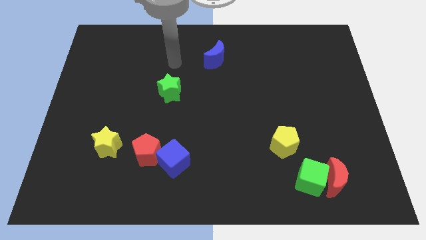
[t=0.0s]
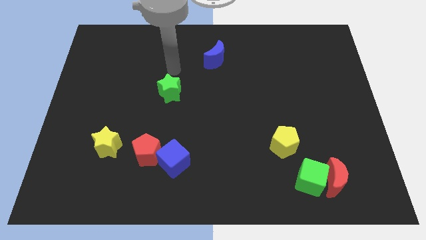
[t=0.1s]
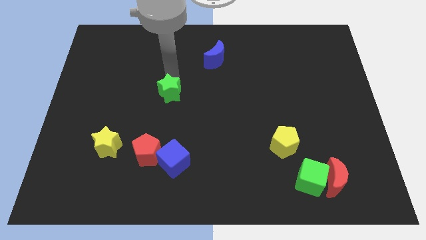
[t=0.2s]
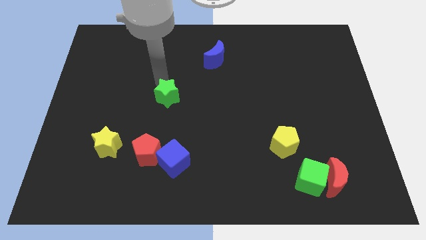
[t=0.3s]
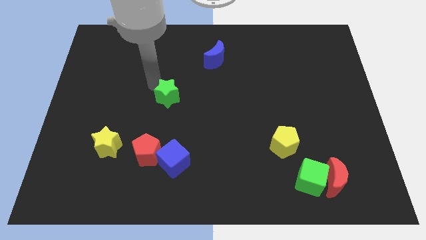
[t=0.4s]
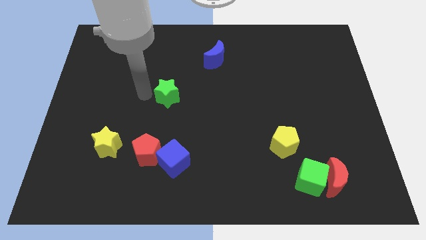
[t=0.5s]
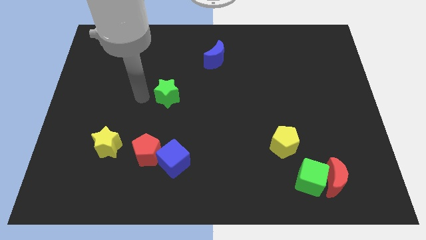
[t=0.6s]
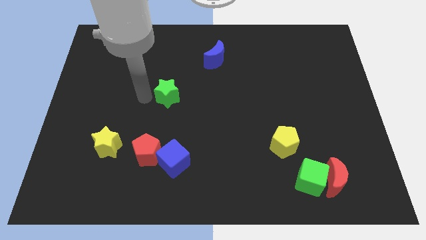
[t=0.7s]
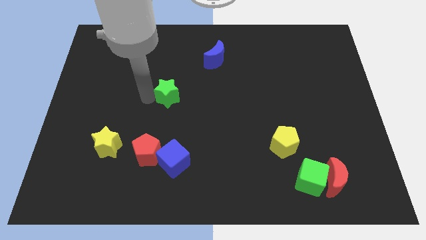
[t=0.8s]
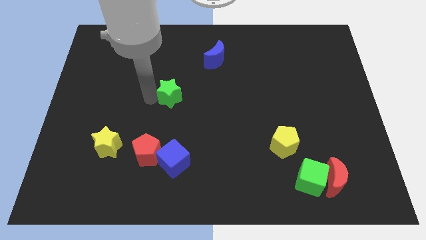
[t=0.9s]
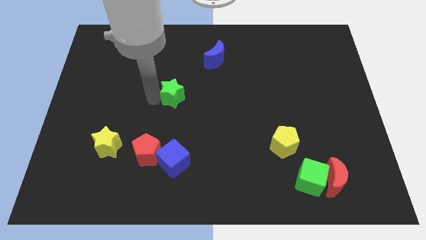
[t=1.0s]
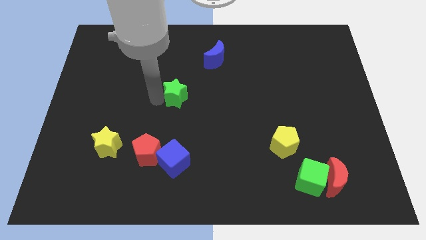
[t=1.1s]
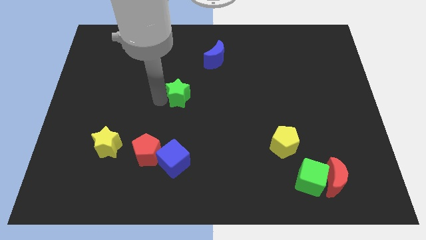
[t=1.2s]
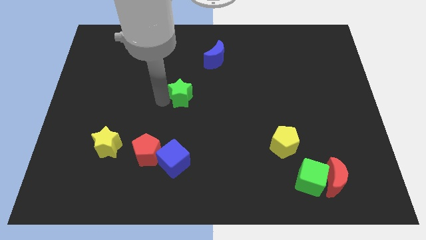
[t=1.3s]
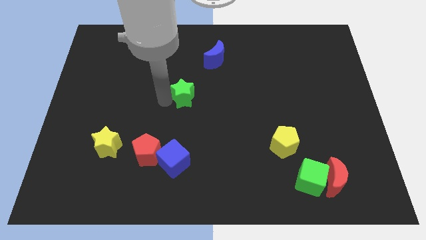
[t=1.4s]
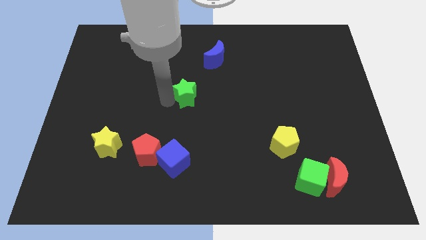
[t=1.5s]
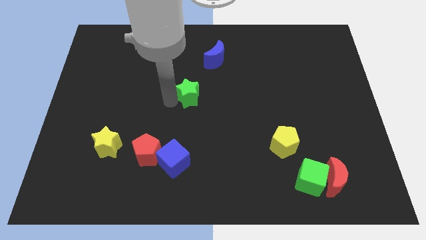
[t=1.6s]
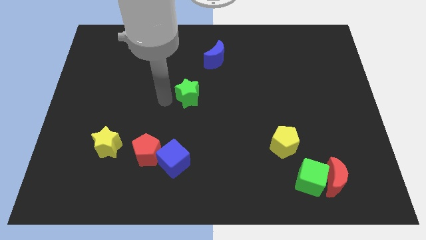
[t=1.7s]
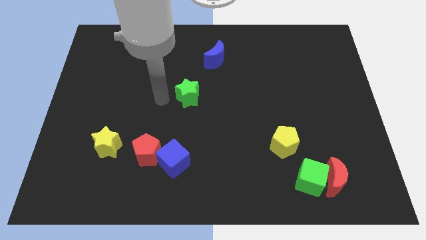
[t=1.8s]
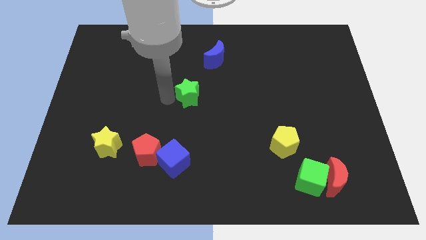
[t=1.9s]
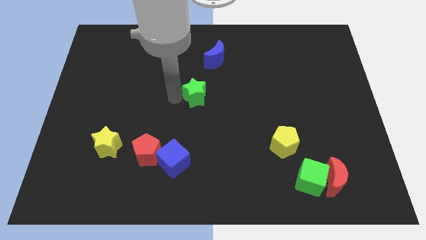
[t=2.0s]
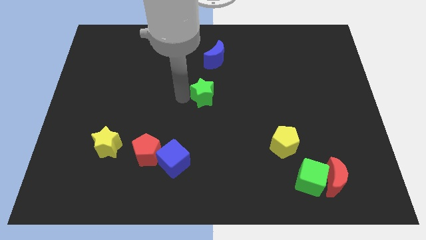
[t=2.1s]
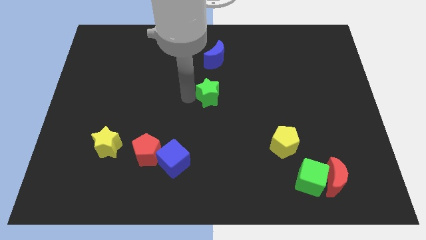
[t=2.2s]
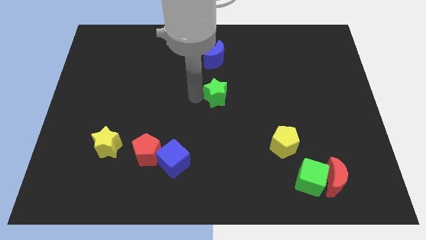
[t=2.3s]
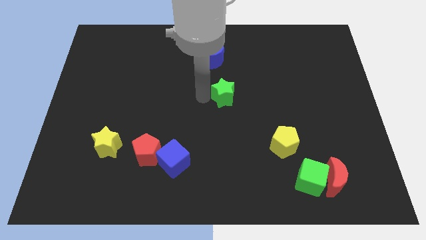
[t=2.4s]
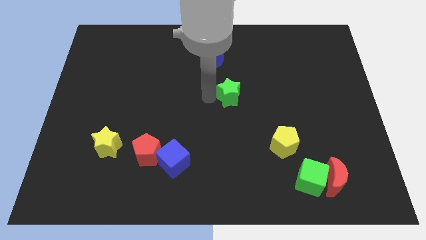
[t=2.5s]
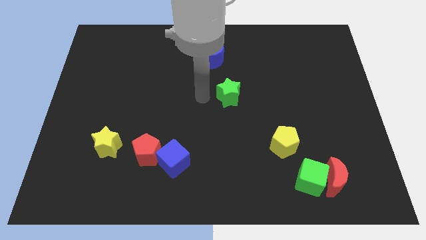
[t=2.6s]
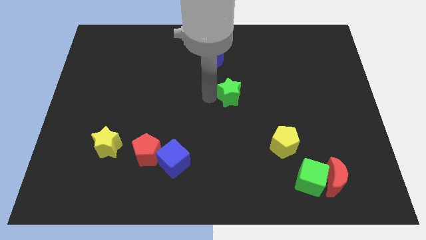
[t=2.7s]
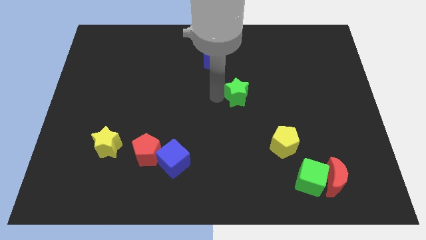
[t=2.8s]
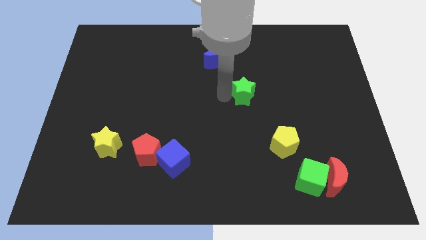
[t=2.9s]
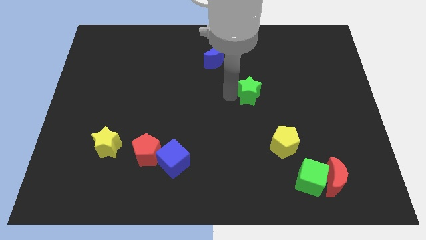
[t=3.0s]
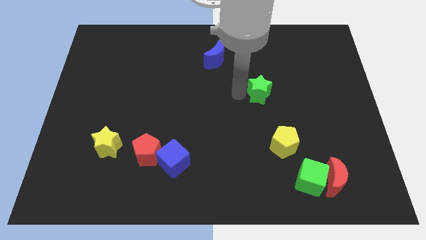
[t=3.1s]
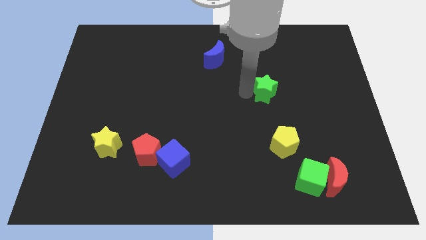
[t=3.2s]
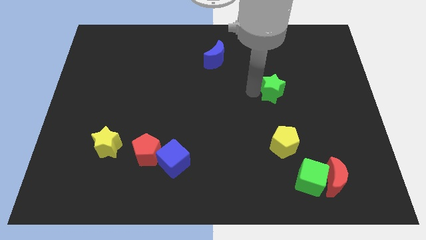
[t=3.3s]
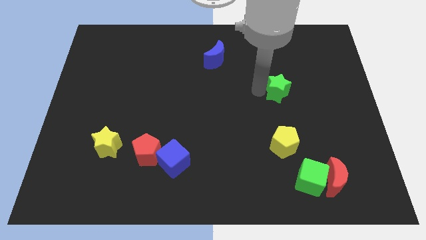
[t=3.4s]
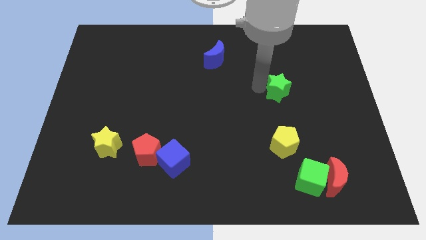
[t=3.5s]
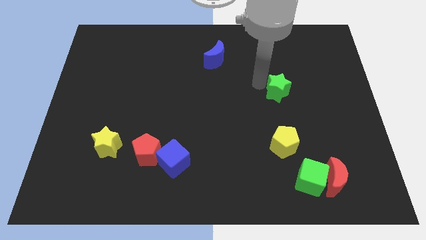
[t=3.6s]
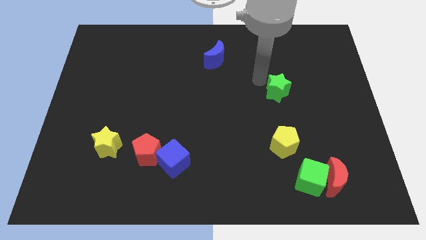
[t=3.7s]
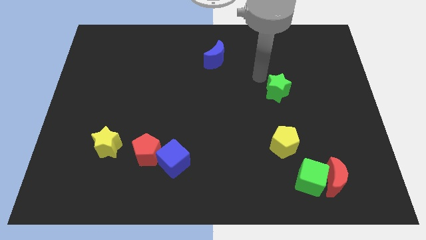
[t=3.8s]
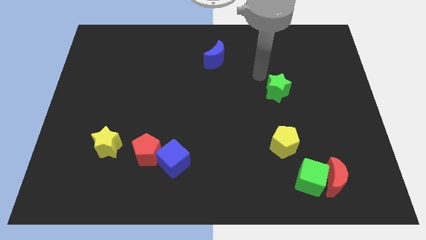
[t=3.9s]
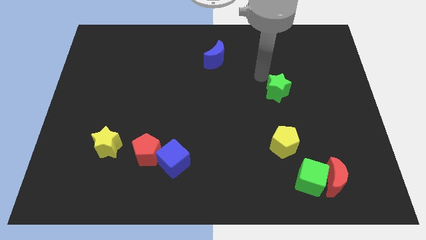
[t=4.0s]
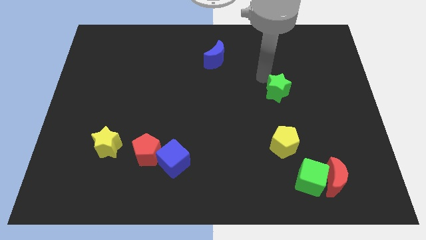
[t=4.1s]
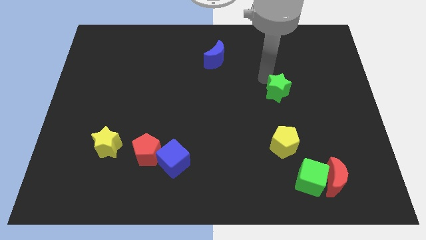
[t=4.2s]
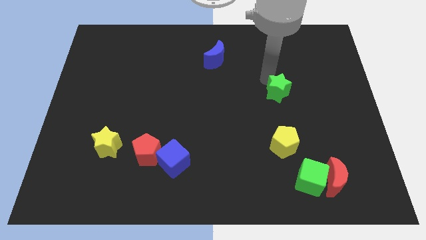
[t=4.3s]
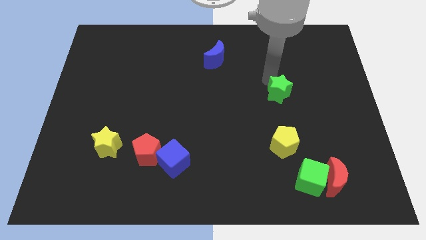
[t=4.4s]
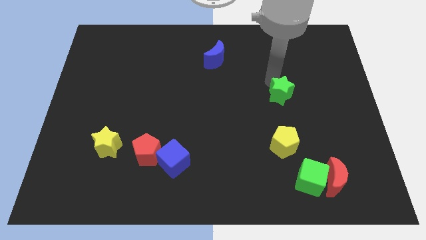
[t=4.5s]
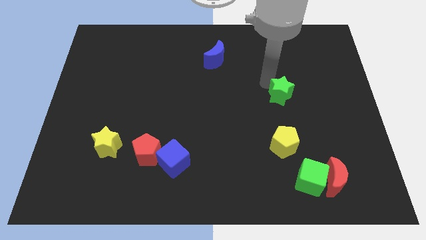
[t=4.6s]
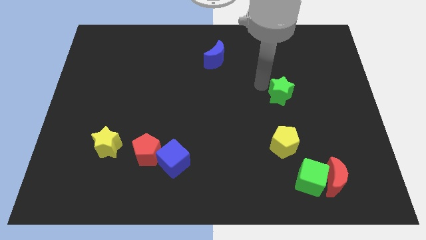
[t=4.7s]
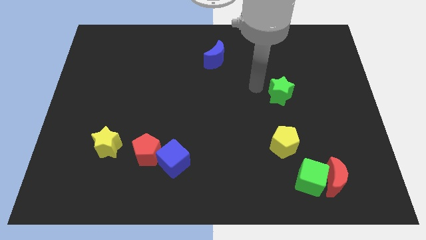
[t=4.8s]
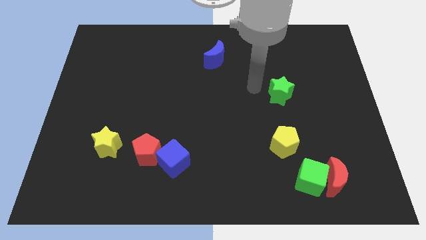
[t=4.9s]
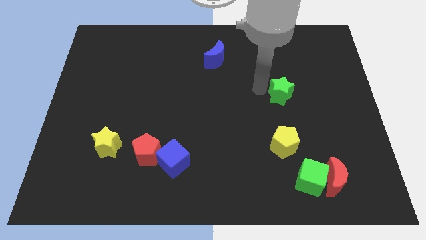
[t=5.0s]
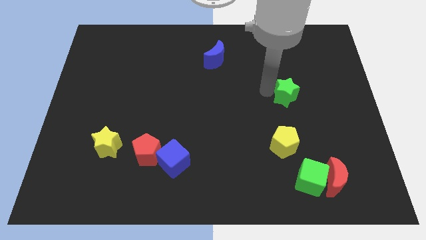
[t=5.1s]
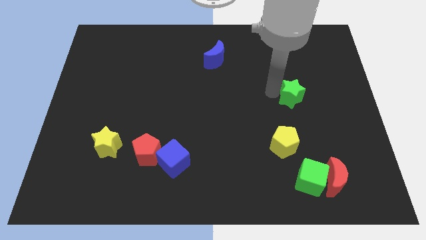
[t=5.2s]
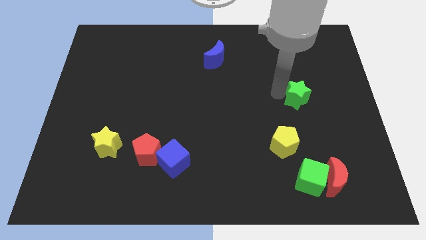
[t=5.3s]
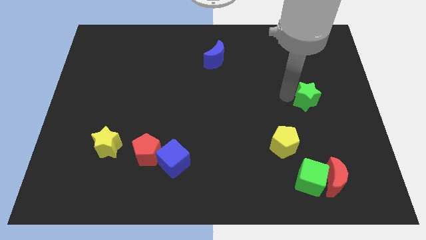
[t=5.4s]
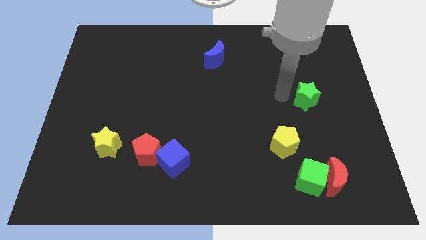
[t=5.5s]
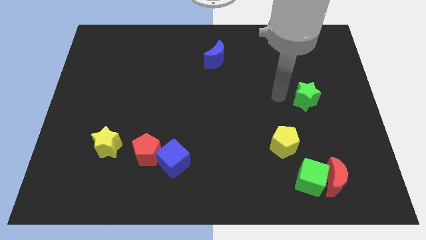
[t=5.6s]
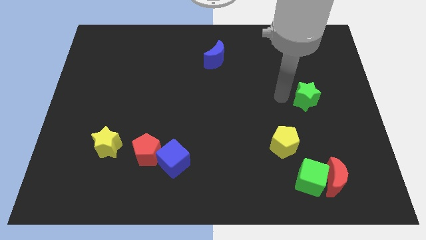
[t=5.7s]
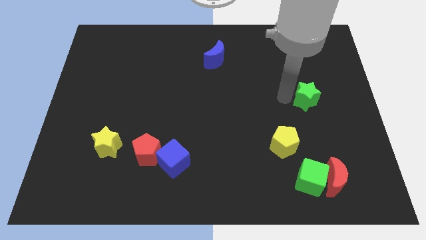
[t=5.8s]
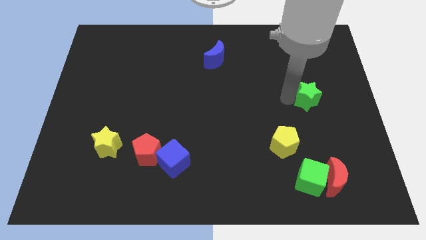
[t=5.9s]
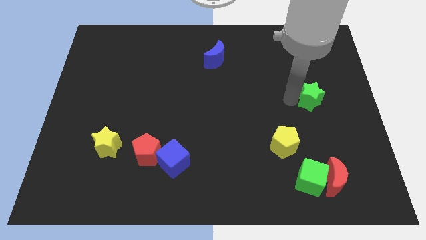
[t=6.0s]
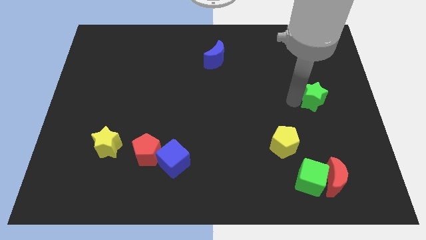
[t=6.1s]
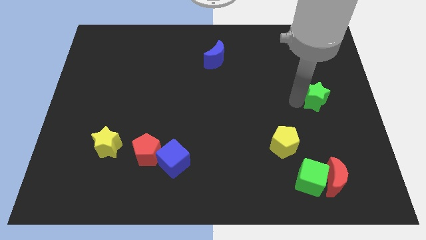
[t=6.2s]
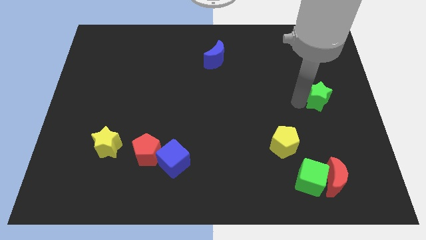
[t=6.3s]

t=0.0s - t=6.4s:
move the green star to the center right
